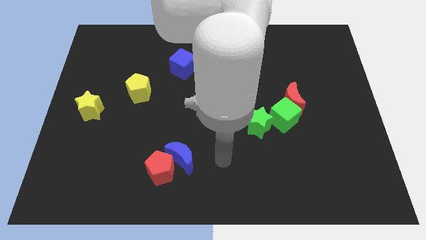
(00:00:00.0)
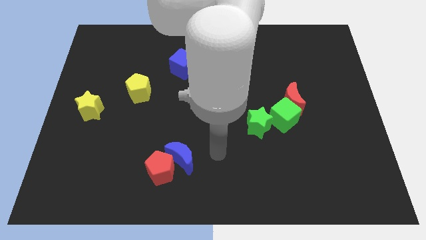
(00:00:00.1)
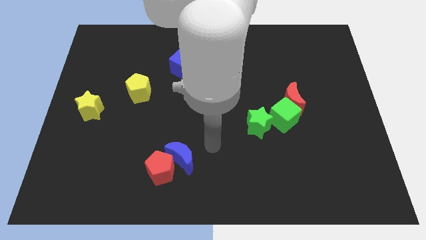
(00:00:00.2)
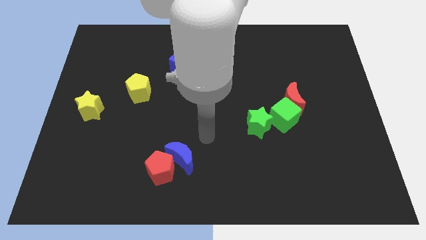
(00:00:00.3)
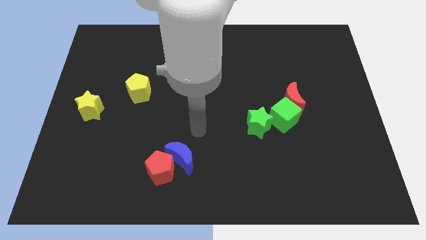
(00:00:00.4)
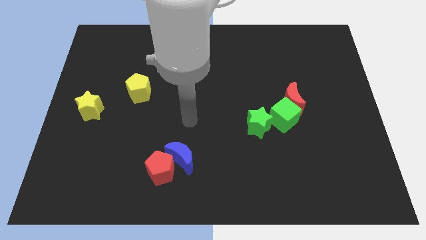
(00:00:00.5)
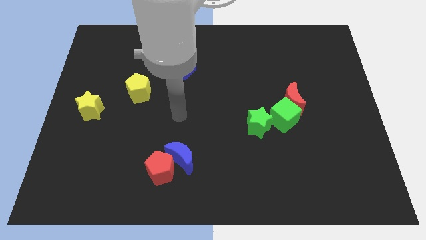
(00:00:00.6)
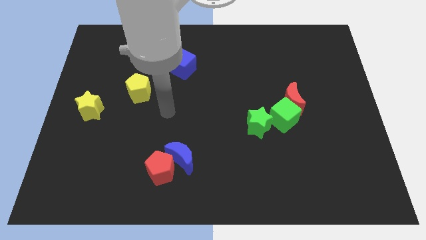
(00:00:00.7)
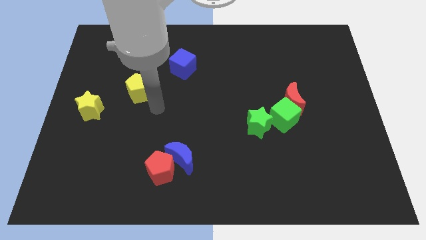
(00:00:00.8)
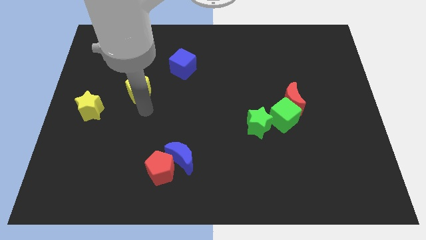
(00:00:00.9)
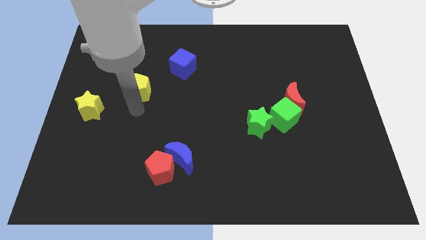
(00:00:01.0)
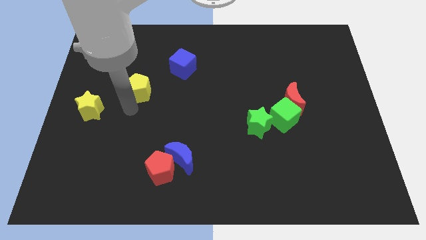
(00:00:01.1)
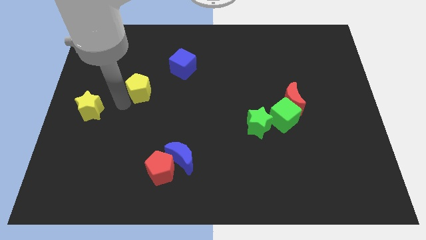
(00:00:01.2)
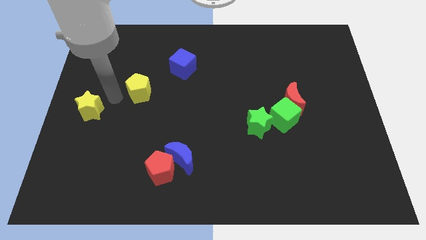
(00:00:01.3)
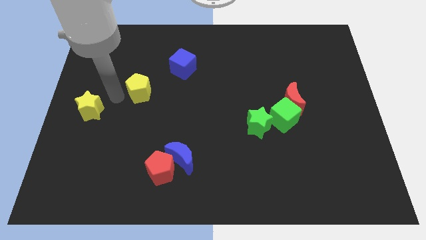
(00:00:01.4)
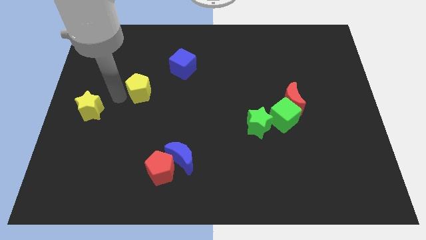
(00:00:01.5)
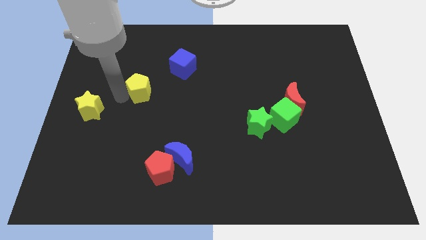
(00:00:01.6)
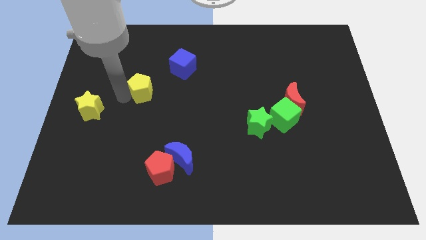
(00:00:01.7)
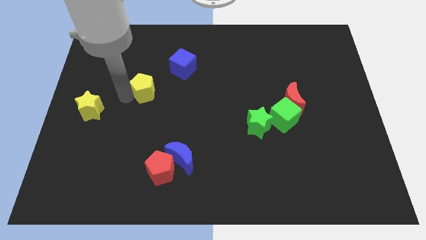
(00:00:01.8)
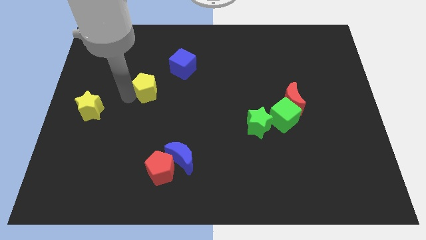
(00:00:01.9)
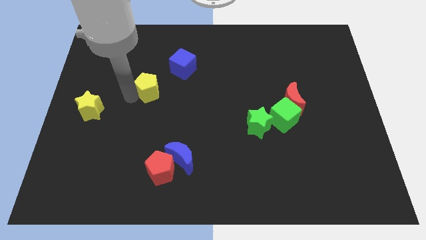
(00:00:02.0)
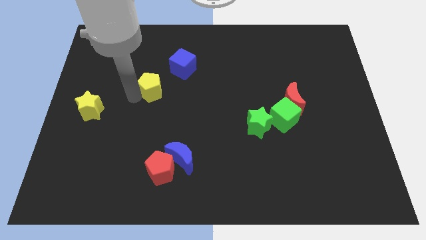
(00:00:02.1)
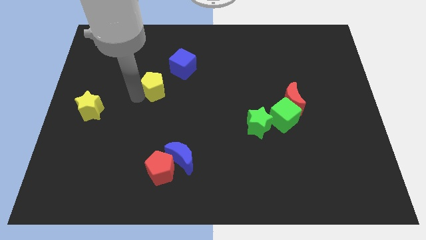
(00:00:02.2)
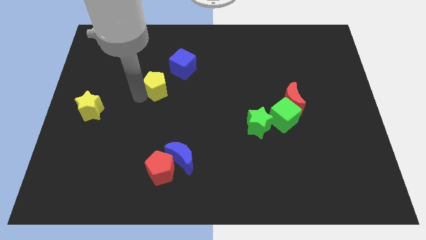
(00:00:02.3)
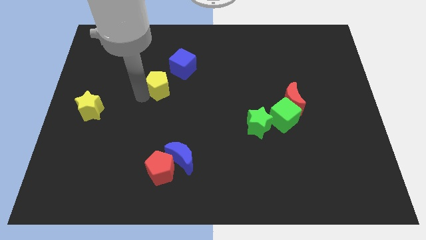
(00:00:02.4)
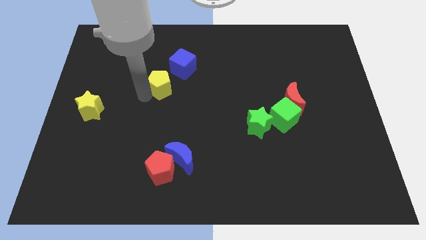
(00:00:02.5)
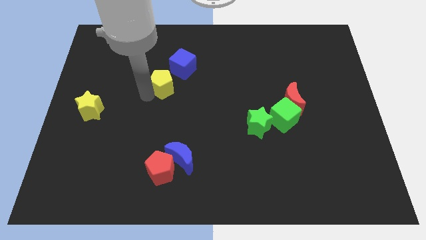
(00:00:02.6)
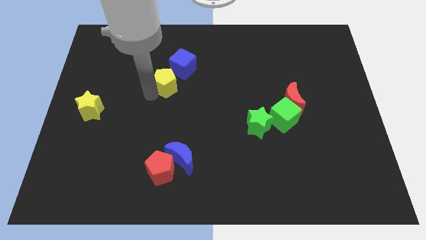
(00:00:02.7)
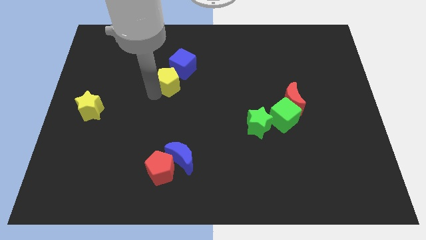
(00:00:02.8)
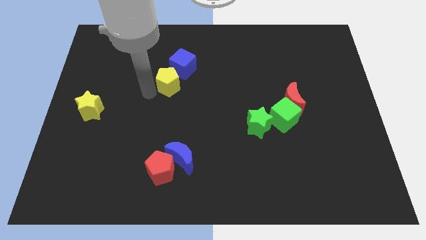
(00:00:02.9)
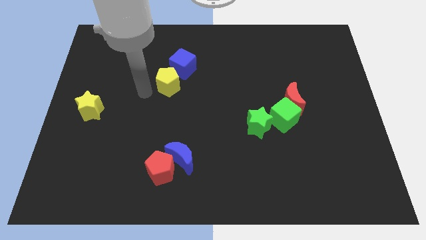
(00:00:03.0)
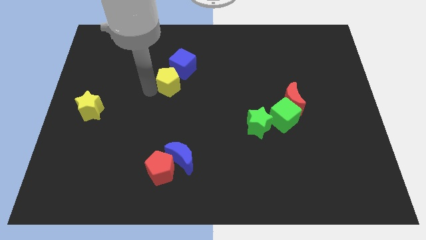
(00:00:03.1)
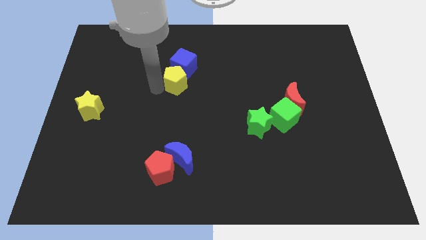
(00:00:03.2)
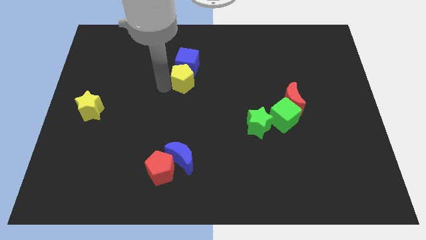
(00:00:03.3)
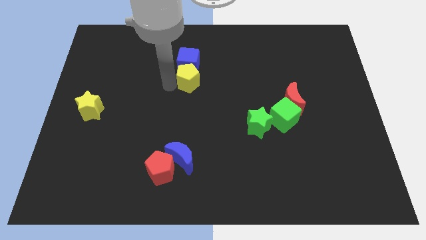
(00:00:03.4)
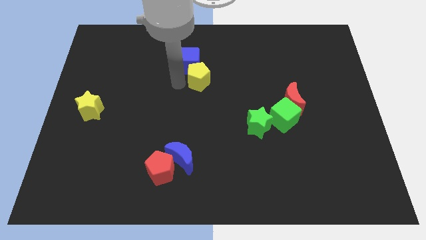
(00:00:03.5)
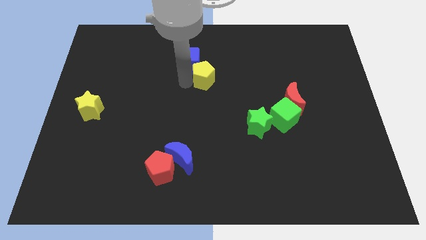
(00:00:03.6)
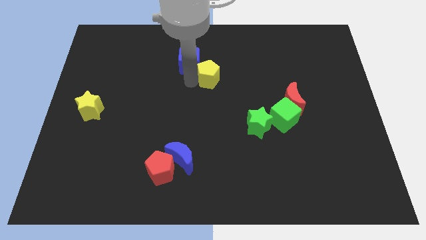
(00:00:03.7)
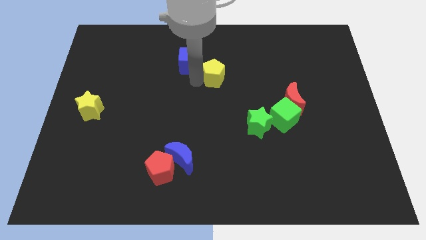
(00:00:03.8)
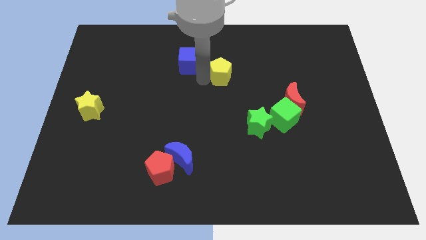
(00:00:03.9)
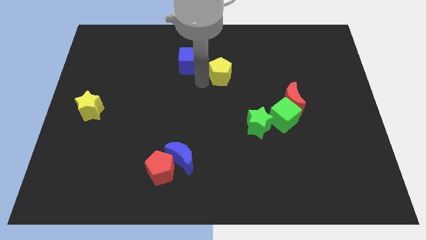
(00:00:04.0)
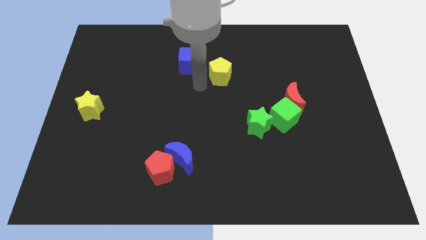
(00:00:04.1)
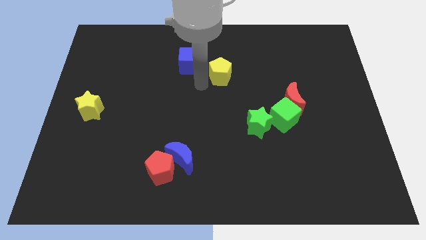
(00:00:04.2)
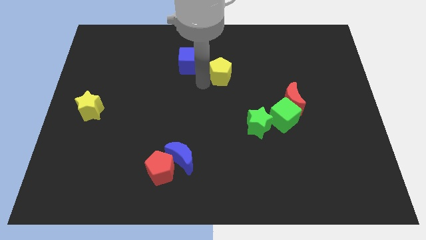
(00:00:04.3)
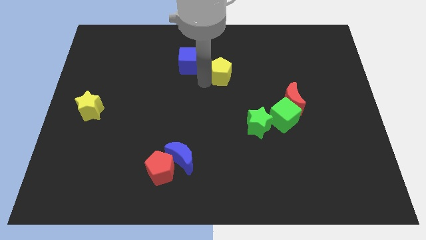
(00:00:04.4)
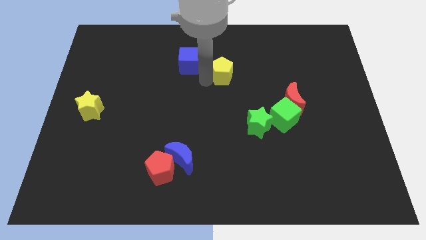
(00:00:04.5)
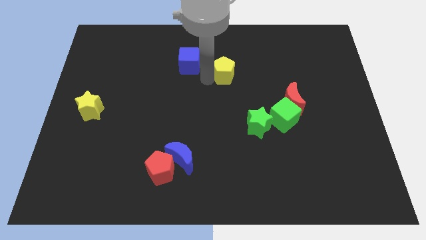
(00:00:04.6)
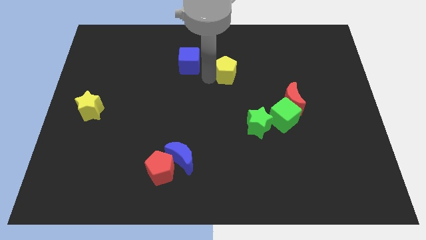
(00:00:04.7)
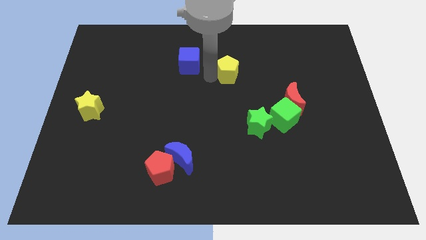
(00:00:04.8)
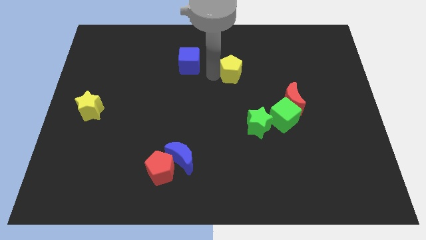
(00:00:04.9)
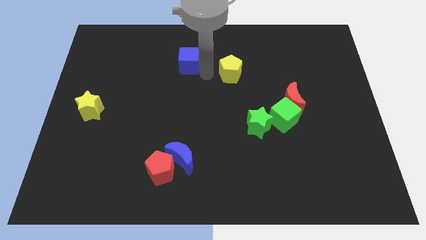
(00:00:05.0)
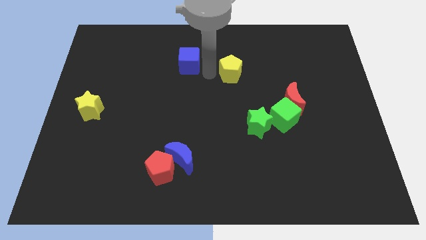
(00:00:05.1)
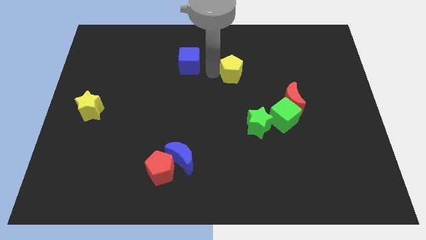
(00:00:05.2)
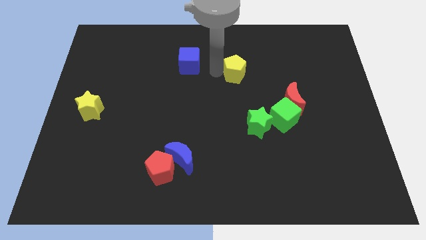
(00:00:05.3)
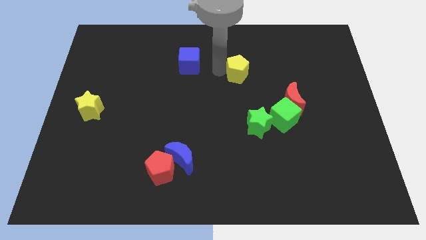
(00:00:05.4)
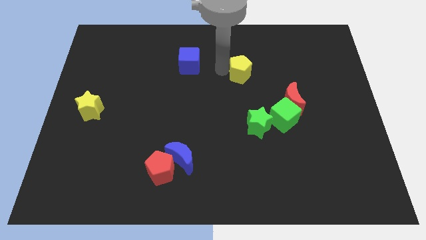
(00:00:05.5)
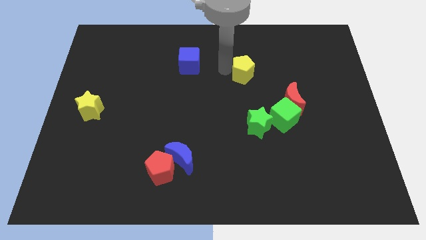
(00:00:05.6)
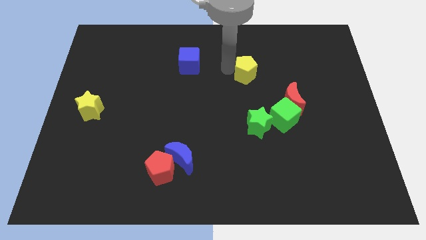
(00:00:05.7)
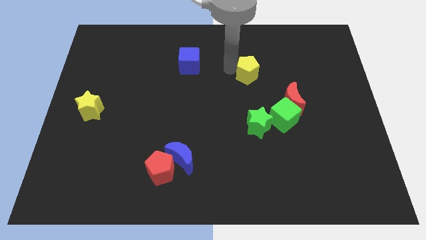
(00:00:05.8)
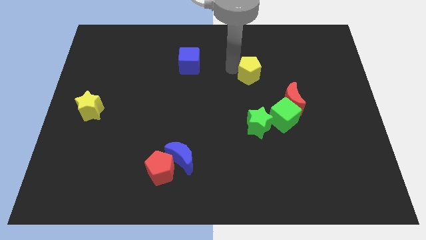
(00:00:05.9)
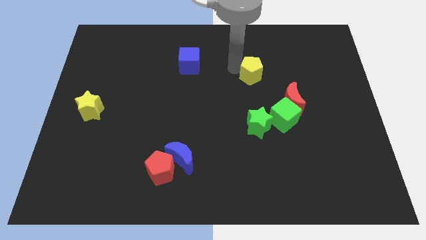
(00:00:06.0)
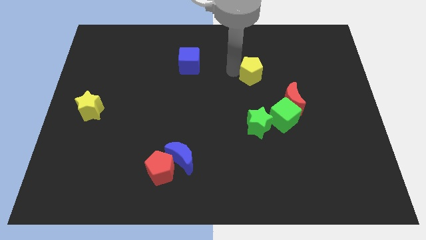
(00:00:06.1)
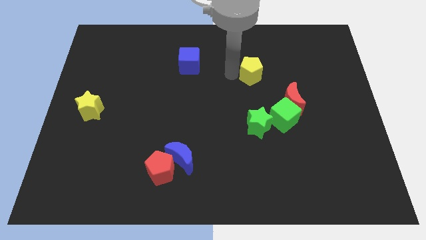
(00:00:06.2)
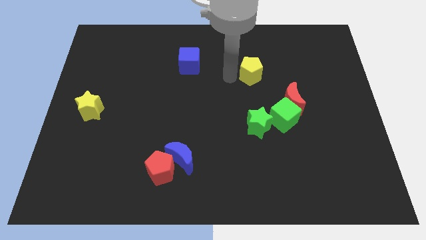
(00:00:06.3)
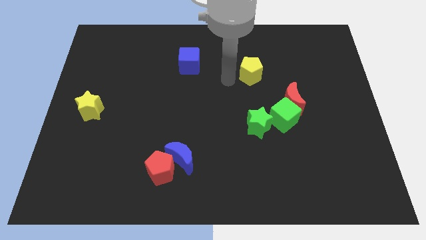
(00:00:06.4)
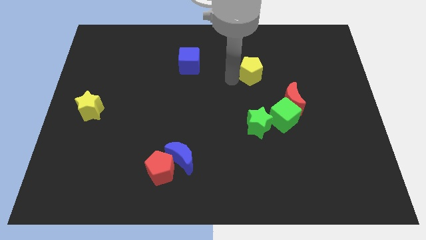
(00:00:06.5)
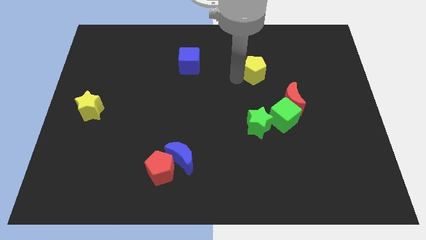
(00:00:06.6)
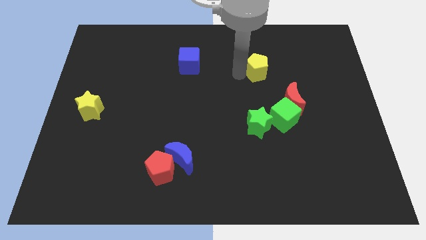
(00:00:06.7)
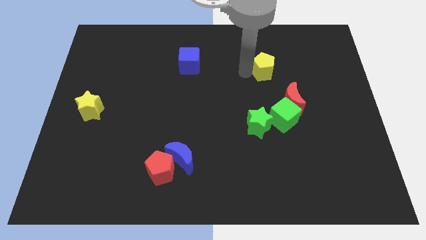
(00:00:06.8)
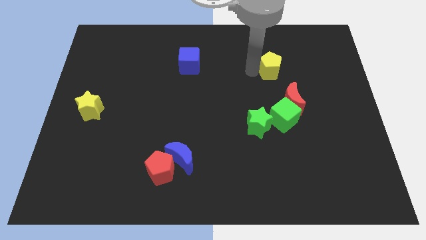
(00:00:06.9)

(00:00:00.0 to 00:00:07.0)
push the yellow pentagon to the top of the red moon
